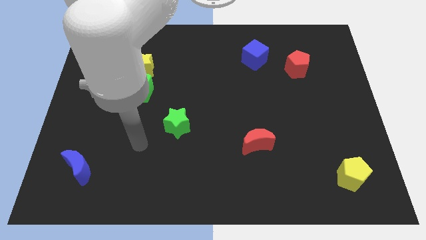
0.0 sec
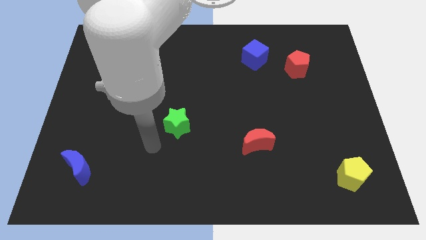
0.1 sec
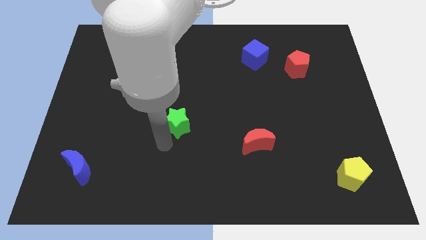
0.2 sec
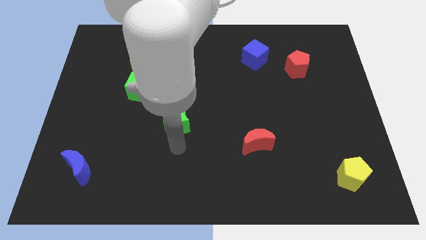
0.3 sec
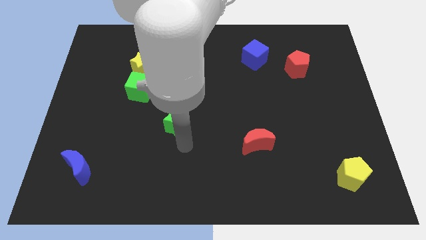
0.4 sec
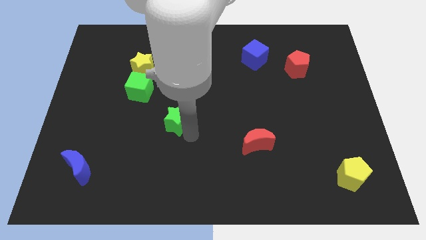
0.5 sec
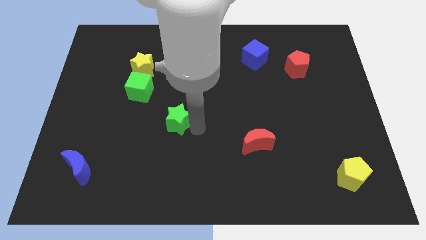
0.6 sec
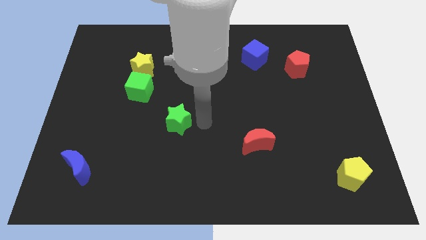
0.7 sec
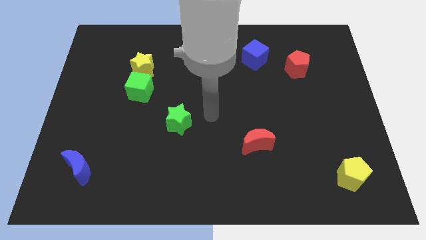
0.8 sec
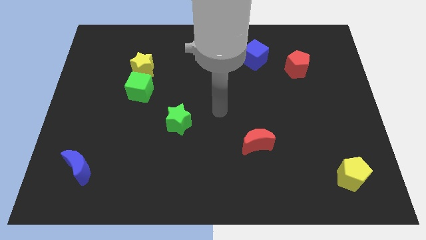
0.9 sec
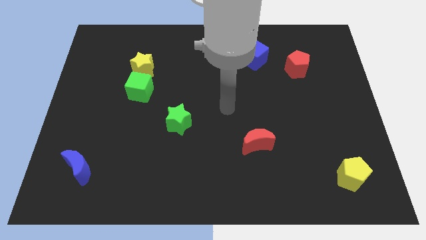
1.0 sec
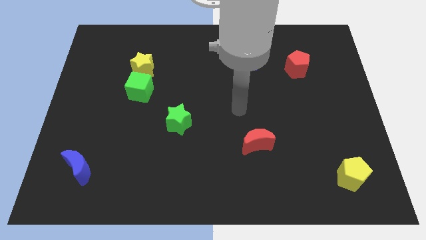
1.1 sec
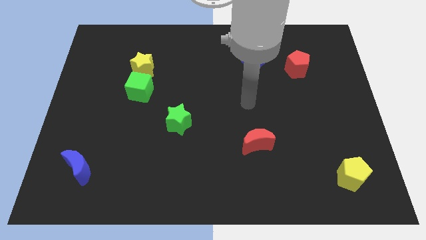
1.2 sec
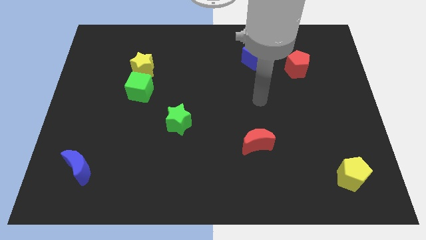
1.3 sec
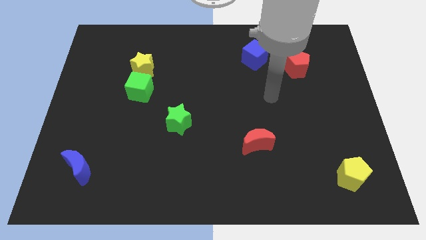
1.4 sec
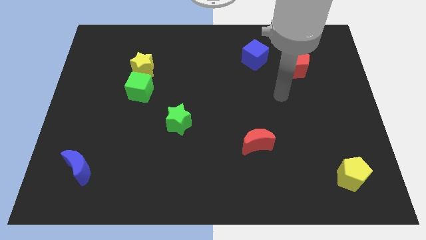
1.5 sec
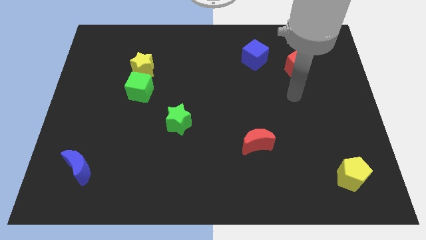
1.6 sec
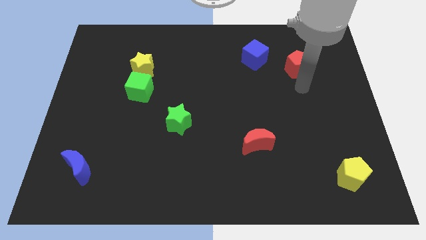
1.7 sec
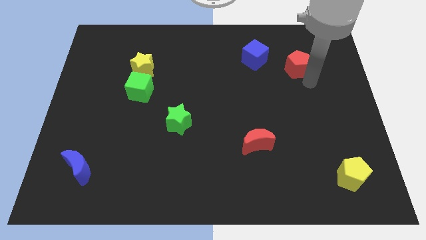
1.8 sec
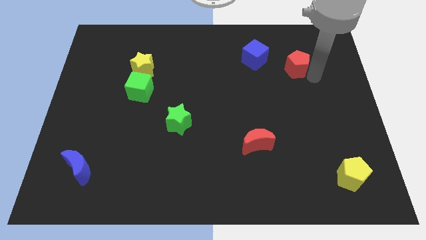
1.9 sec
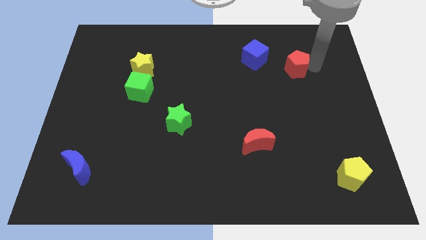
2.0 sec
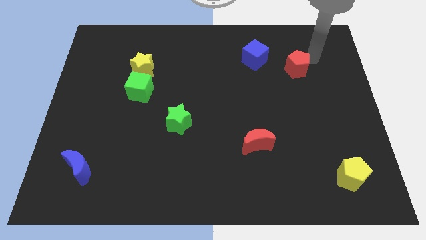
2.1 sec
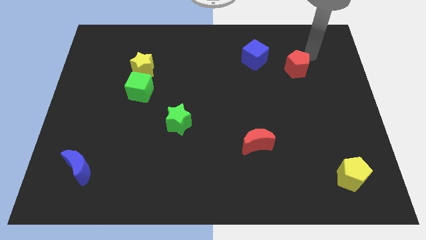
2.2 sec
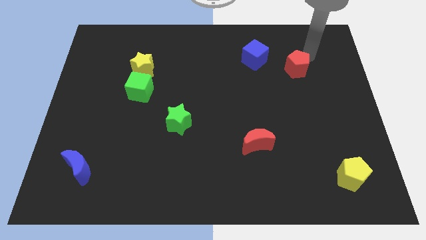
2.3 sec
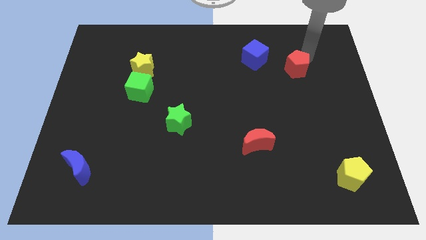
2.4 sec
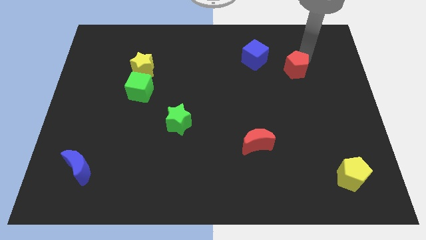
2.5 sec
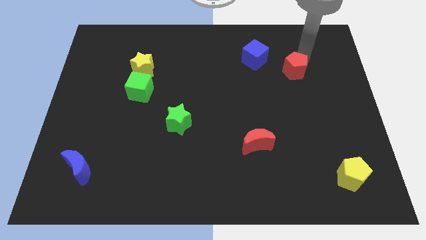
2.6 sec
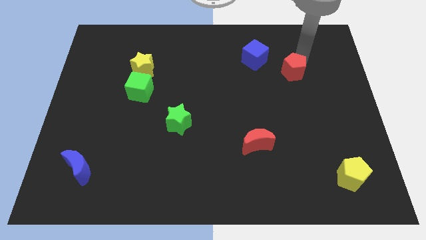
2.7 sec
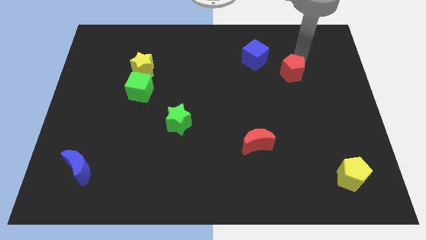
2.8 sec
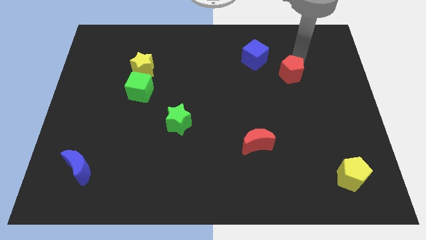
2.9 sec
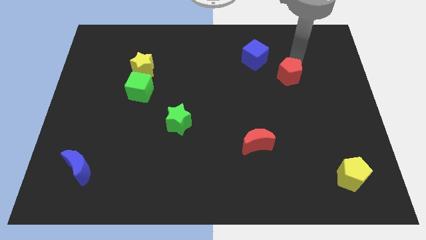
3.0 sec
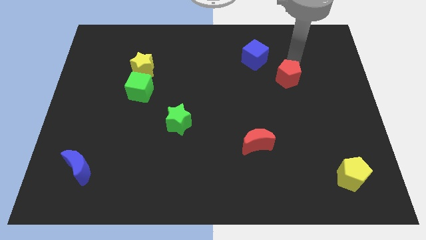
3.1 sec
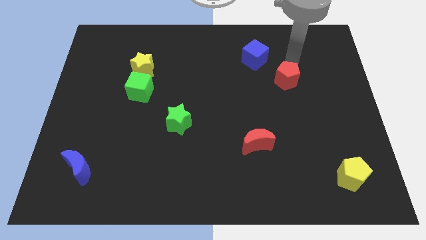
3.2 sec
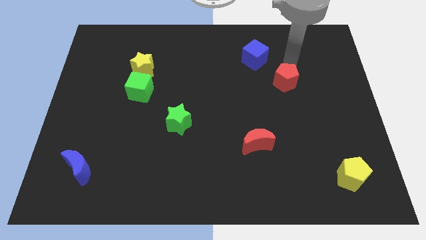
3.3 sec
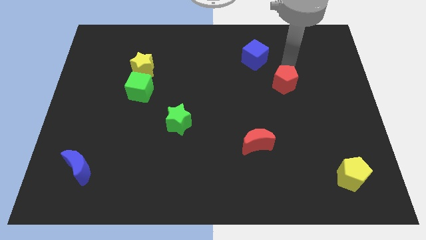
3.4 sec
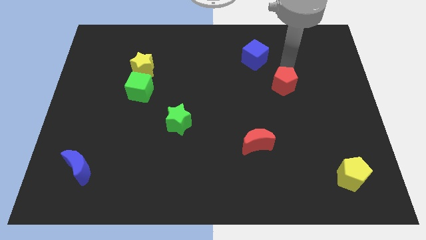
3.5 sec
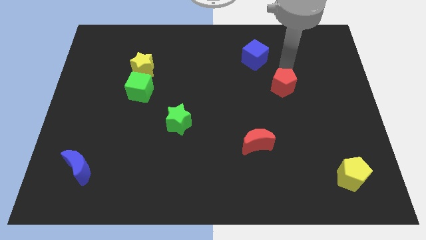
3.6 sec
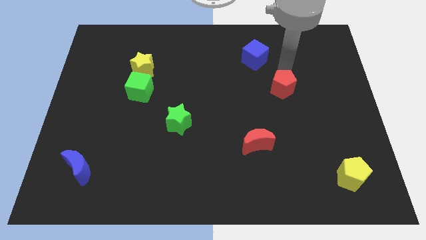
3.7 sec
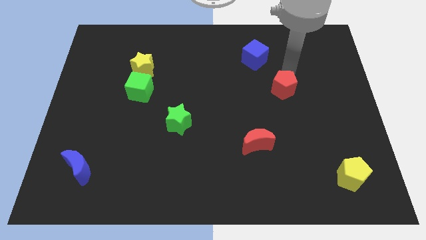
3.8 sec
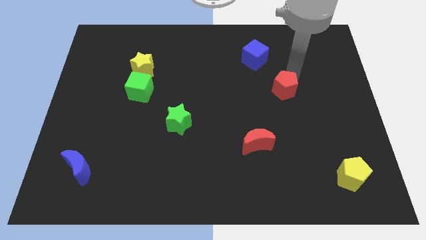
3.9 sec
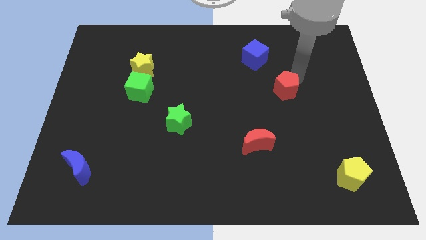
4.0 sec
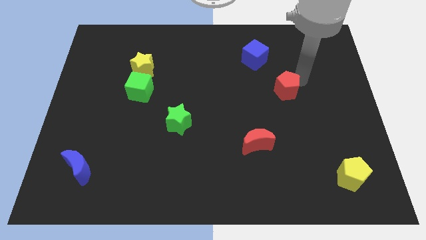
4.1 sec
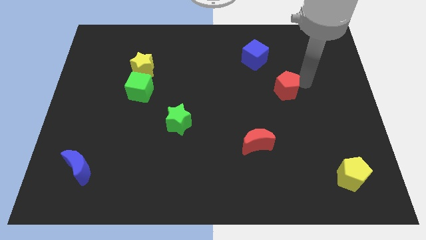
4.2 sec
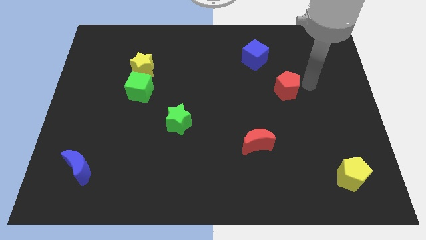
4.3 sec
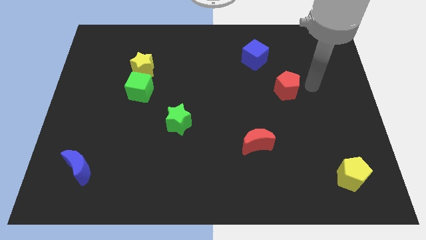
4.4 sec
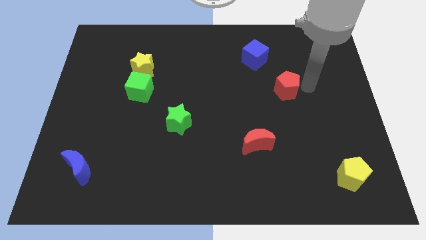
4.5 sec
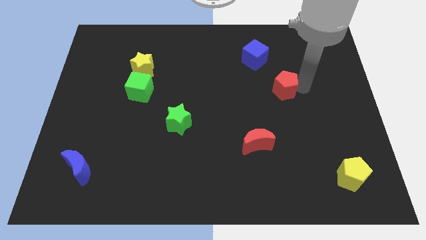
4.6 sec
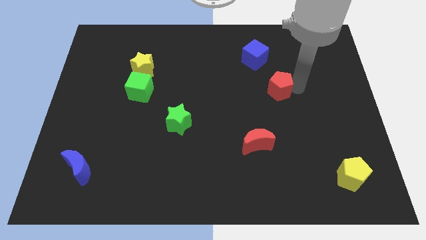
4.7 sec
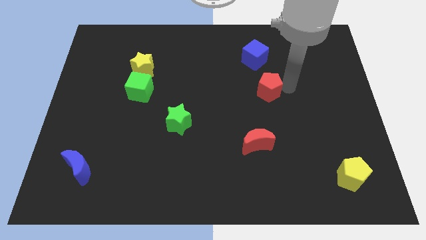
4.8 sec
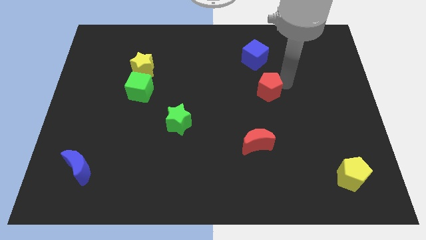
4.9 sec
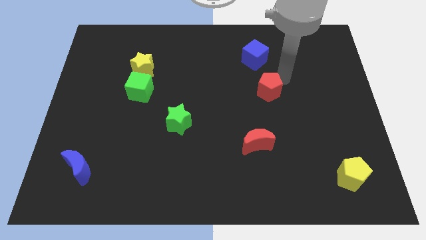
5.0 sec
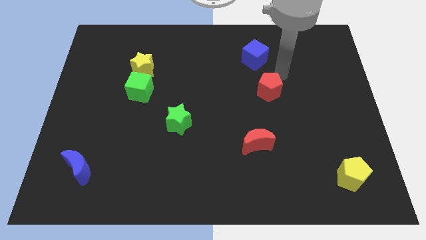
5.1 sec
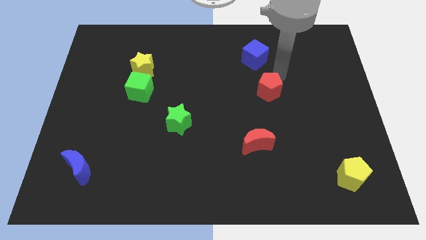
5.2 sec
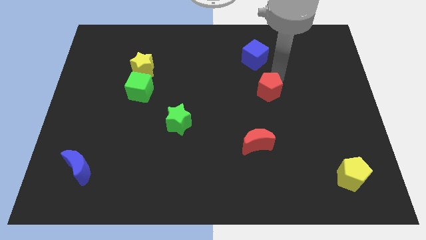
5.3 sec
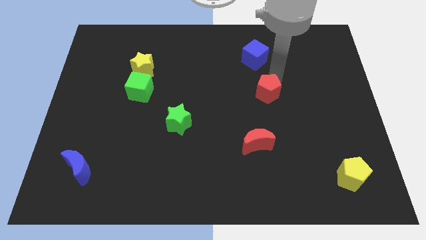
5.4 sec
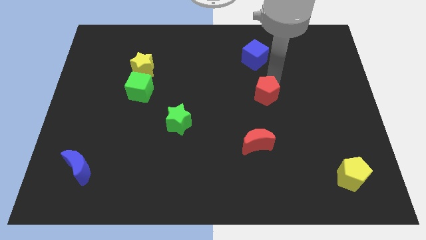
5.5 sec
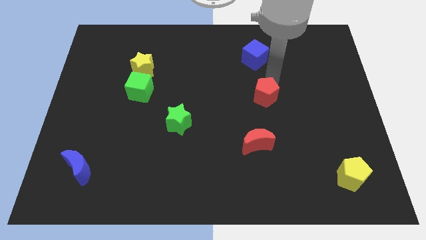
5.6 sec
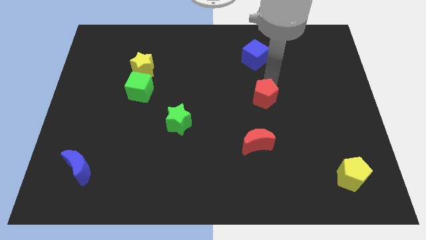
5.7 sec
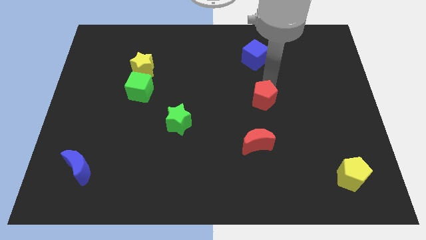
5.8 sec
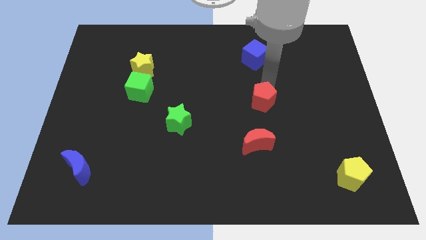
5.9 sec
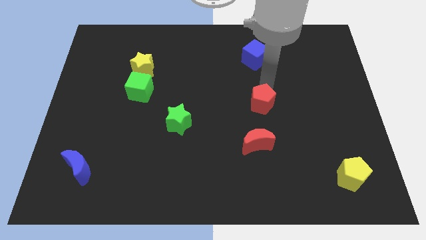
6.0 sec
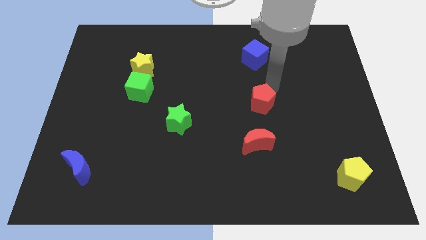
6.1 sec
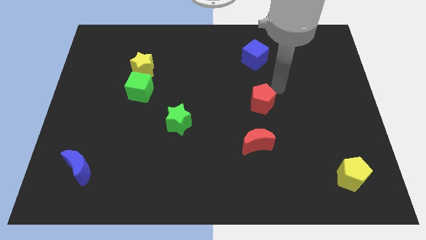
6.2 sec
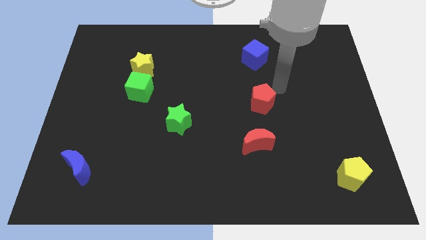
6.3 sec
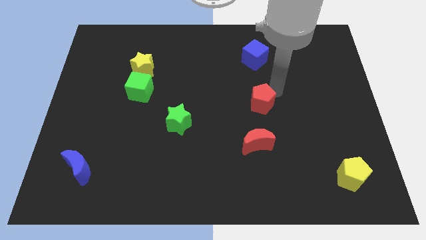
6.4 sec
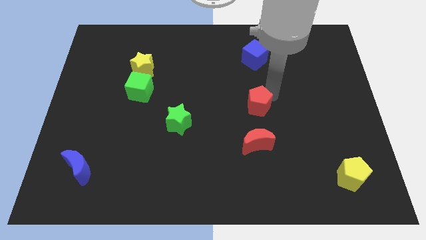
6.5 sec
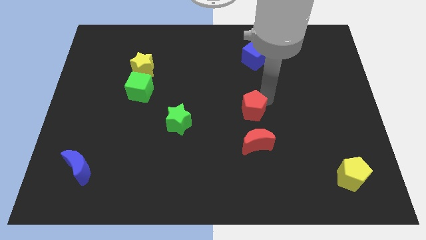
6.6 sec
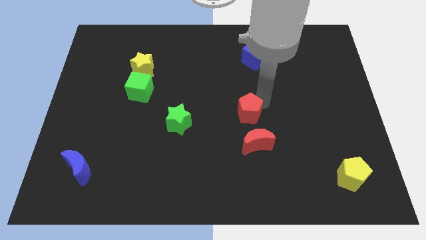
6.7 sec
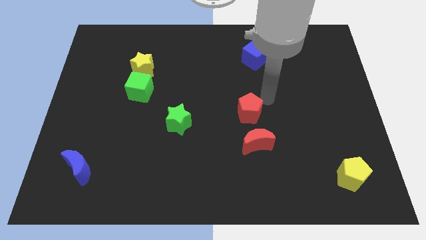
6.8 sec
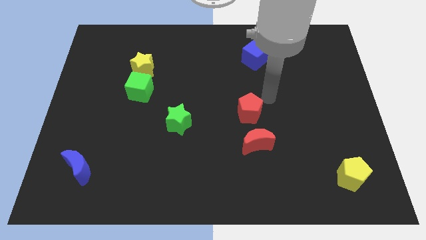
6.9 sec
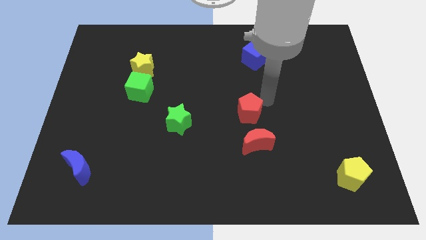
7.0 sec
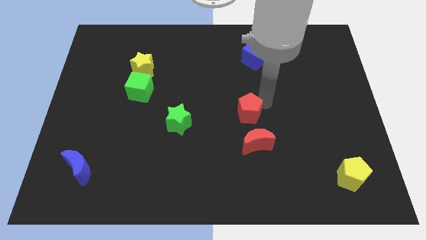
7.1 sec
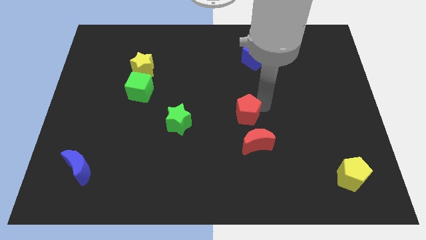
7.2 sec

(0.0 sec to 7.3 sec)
push the red pentagon down and to the left

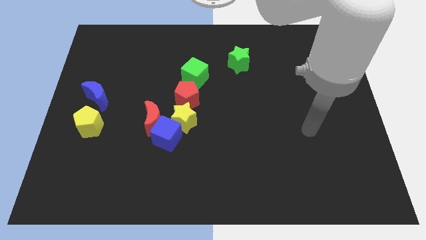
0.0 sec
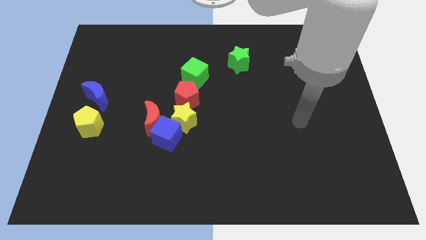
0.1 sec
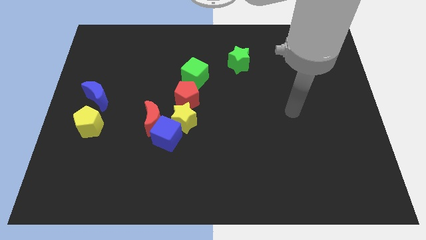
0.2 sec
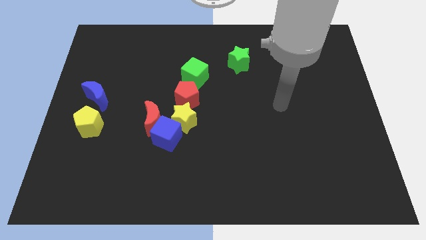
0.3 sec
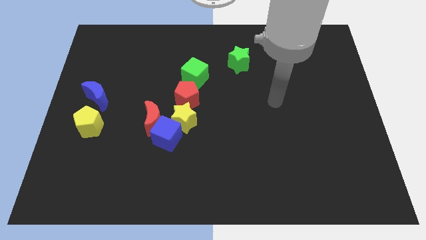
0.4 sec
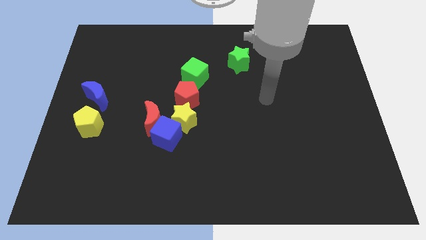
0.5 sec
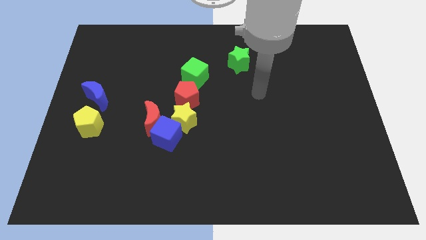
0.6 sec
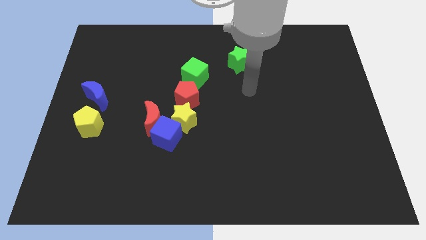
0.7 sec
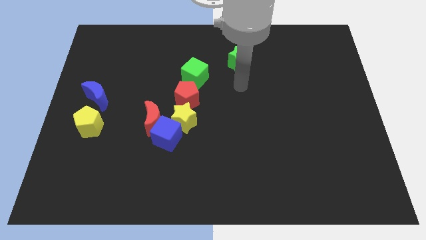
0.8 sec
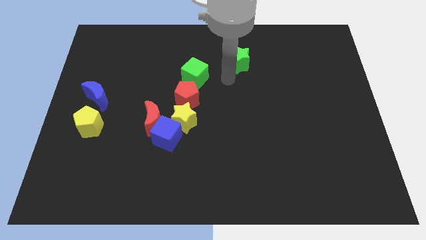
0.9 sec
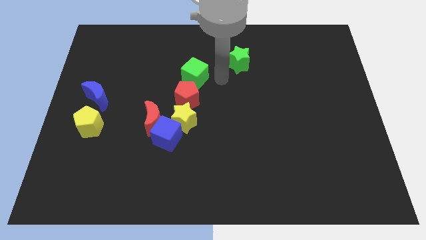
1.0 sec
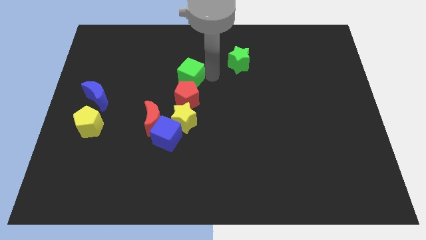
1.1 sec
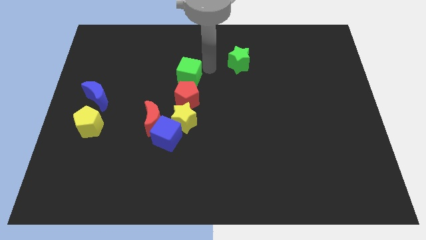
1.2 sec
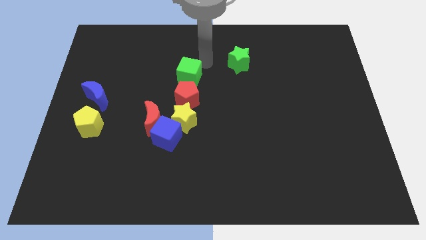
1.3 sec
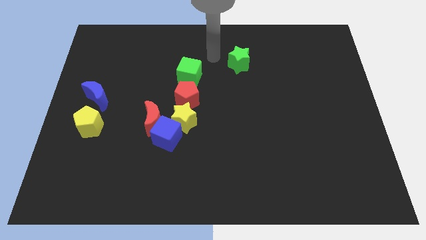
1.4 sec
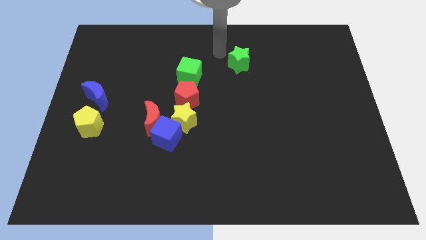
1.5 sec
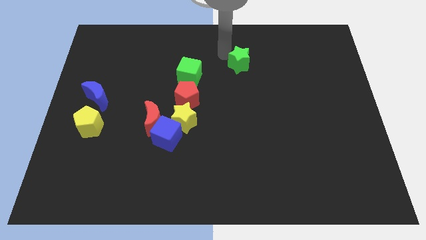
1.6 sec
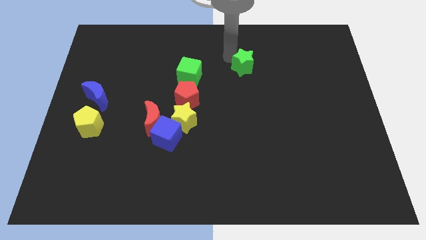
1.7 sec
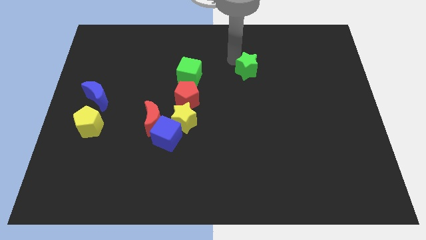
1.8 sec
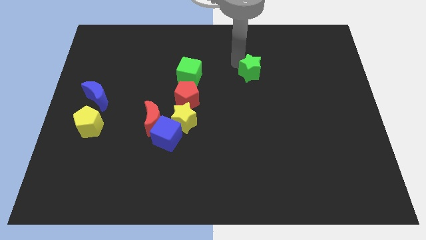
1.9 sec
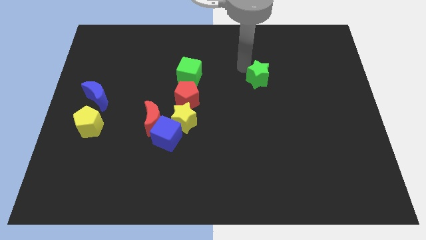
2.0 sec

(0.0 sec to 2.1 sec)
push the green star down and then to the right a little bit
